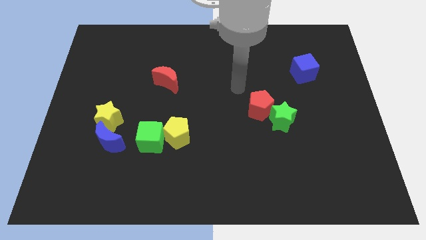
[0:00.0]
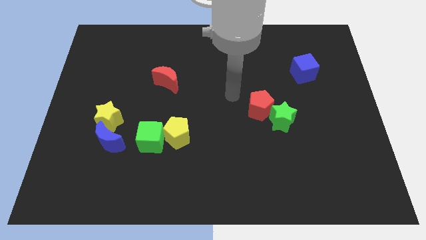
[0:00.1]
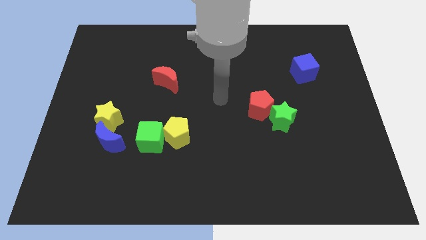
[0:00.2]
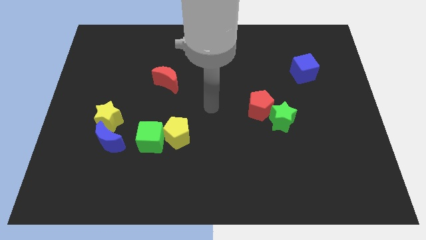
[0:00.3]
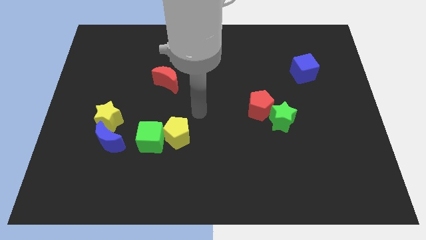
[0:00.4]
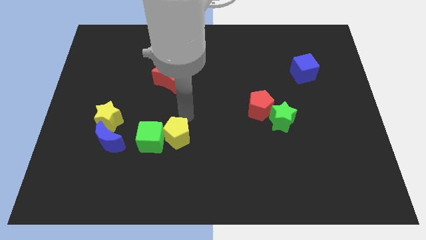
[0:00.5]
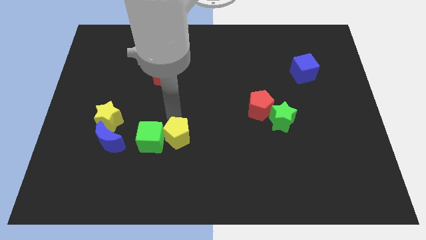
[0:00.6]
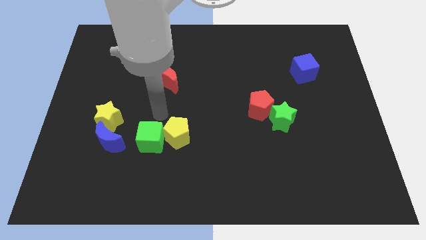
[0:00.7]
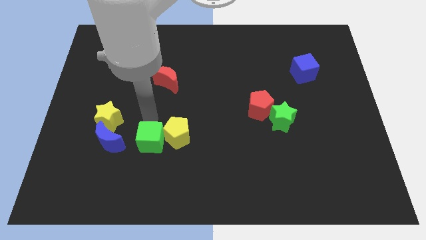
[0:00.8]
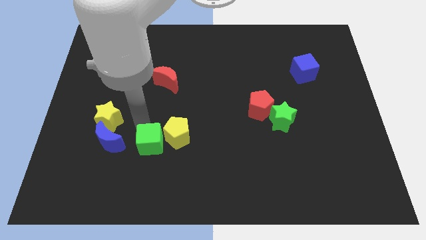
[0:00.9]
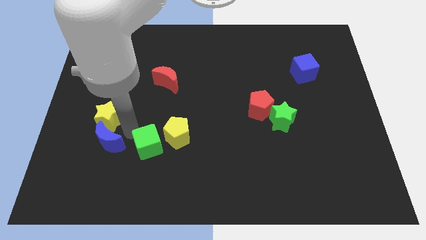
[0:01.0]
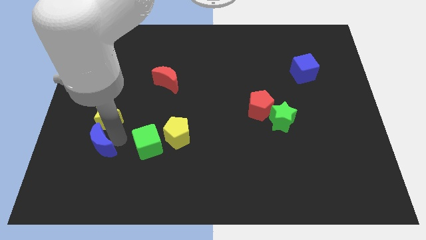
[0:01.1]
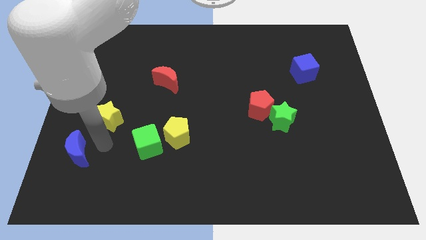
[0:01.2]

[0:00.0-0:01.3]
pull the yellow star apart from the blue moon

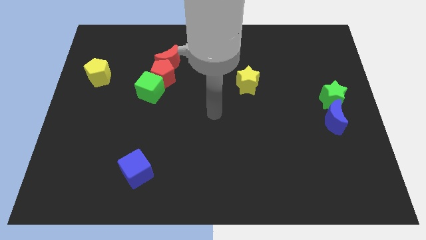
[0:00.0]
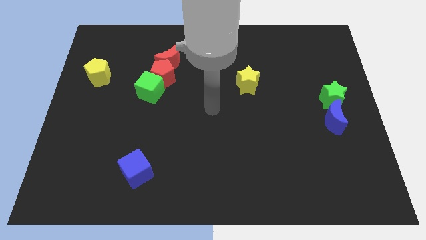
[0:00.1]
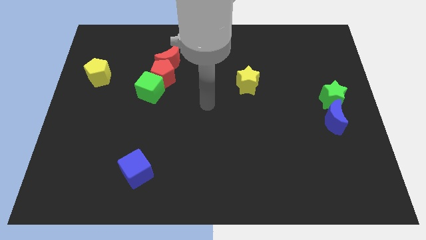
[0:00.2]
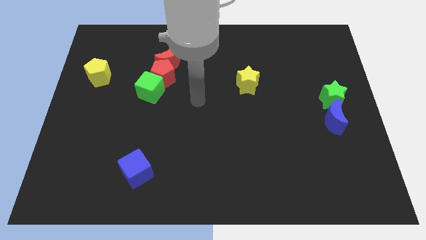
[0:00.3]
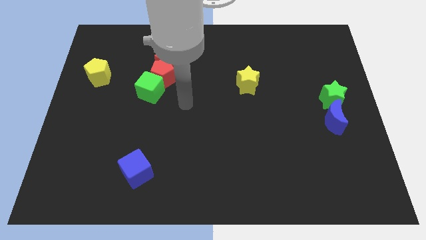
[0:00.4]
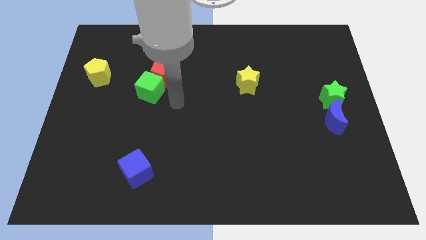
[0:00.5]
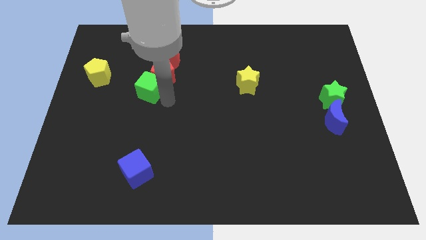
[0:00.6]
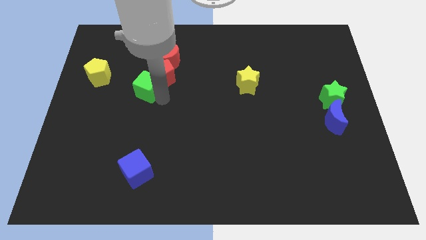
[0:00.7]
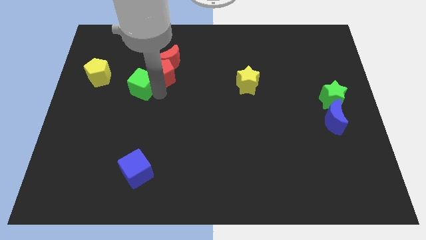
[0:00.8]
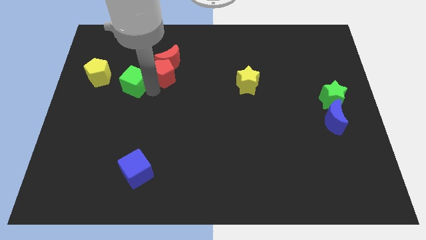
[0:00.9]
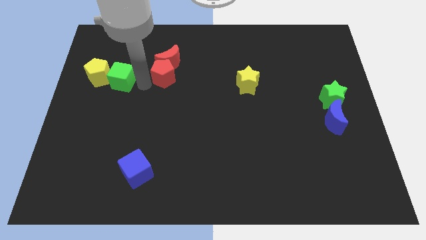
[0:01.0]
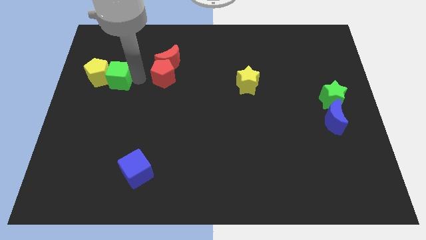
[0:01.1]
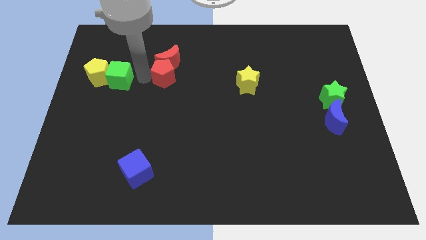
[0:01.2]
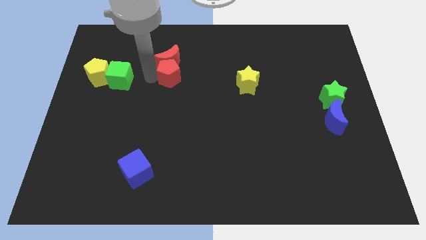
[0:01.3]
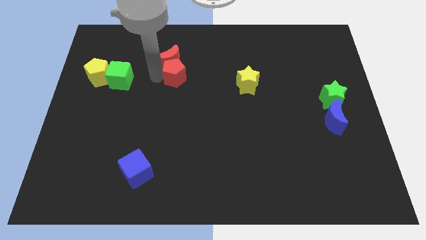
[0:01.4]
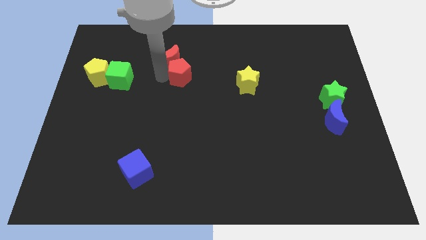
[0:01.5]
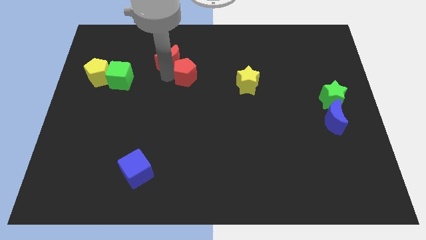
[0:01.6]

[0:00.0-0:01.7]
separate the red pentagon from the red moon and green cube

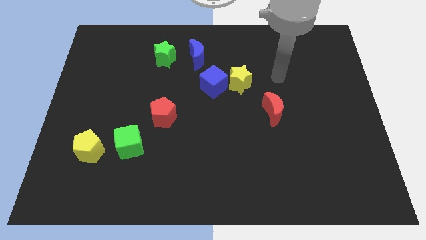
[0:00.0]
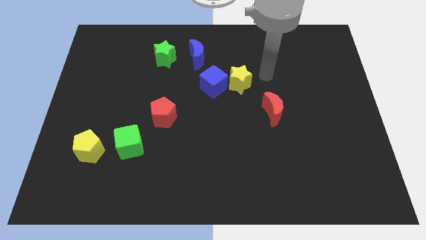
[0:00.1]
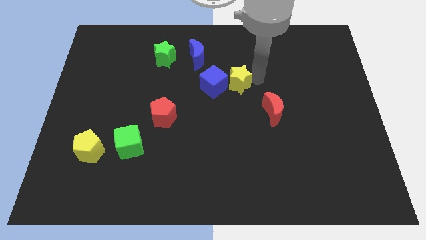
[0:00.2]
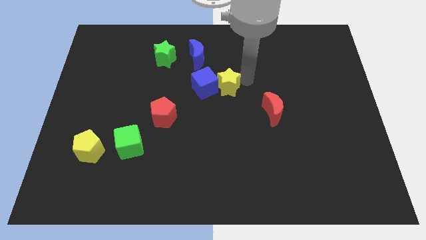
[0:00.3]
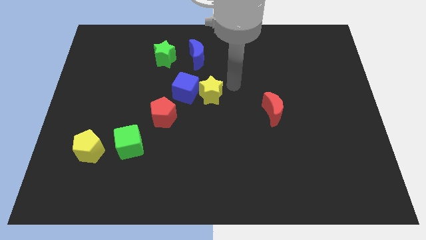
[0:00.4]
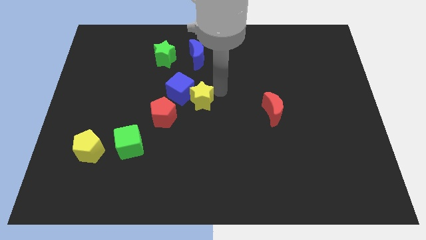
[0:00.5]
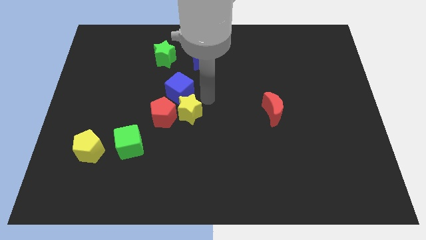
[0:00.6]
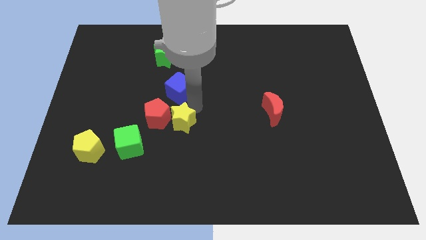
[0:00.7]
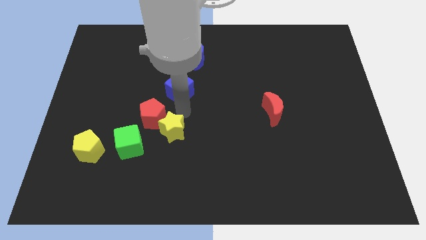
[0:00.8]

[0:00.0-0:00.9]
pull the blue cube apart from the yellow star

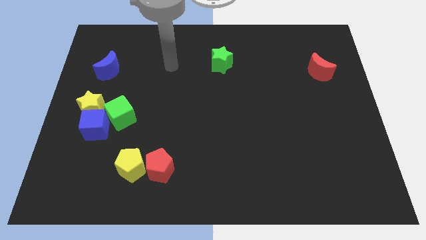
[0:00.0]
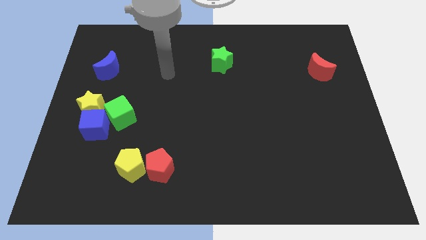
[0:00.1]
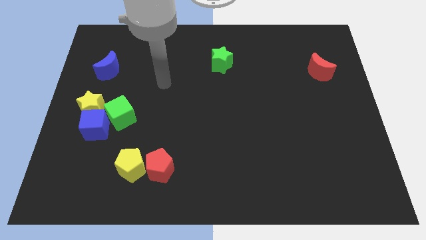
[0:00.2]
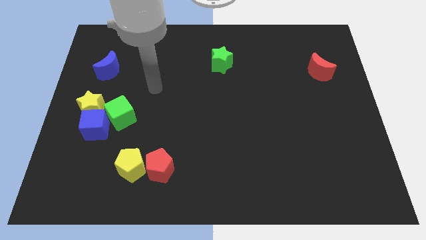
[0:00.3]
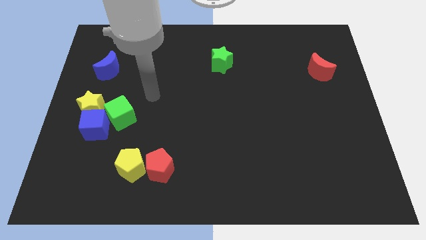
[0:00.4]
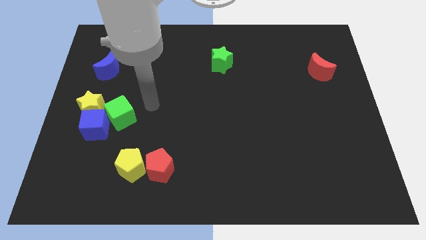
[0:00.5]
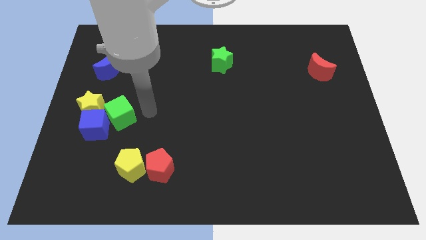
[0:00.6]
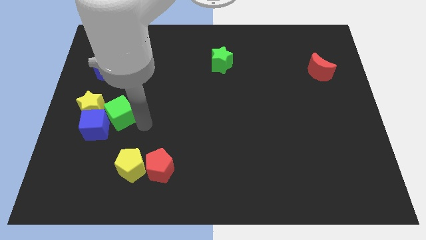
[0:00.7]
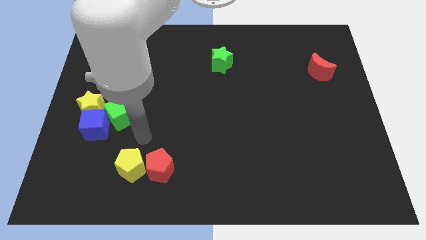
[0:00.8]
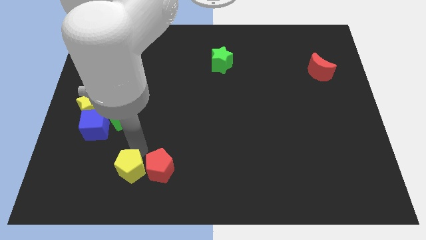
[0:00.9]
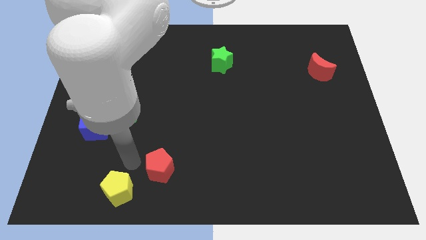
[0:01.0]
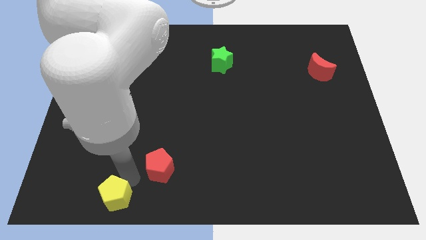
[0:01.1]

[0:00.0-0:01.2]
pull the red pentagon apart from the yellow pentagon

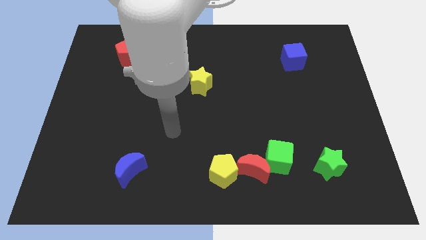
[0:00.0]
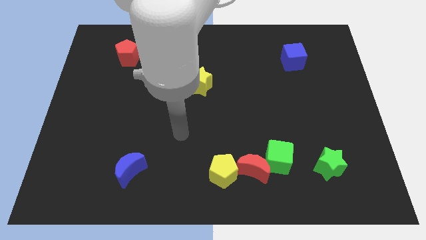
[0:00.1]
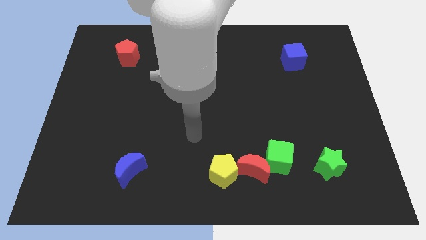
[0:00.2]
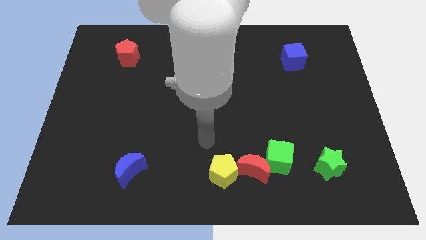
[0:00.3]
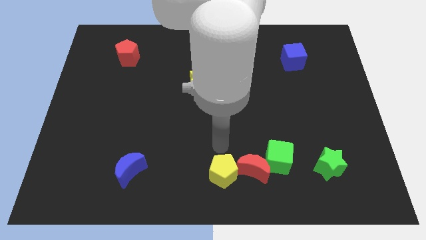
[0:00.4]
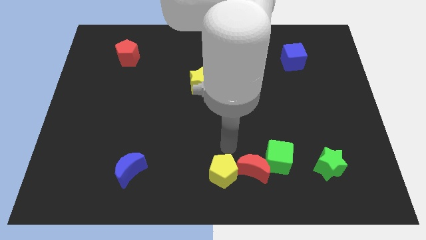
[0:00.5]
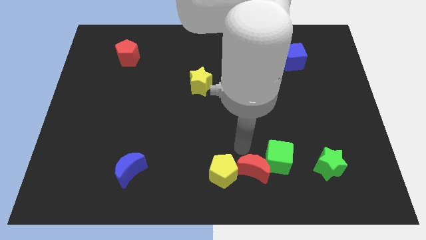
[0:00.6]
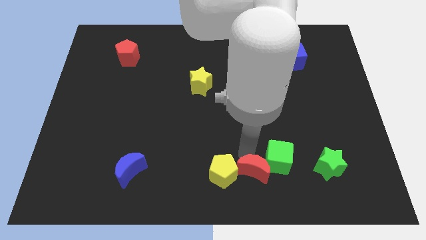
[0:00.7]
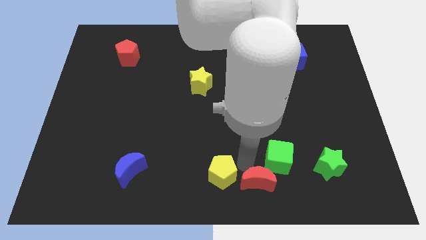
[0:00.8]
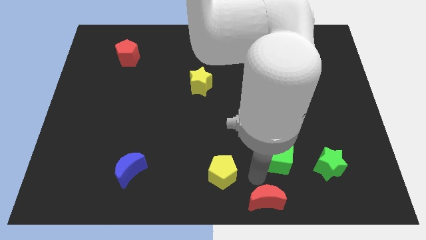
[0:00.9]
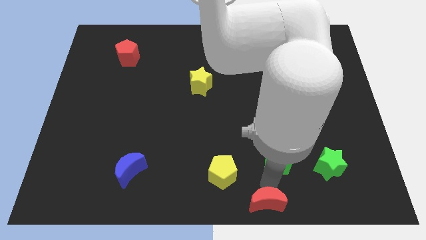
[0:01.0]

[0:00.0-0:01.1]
pull the green cube apart from the red moon

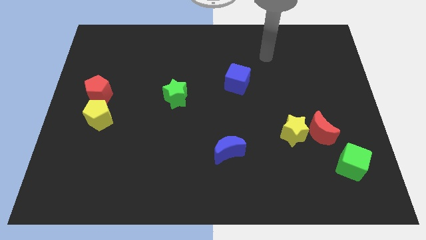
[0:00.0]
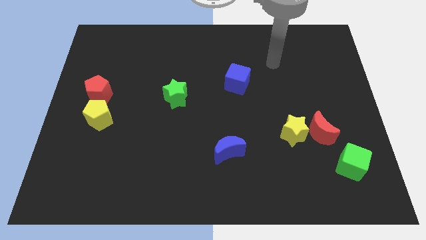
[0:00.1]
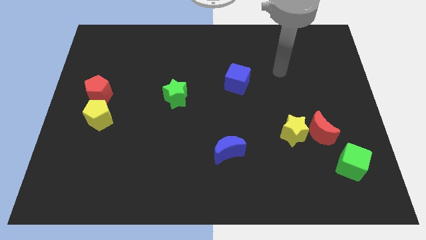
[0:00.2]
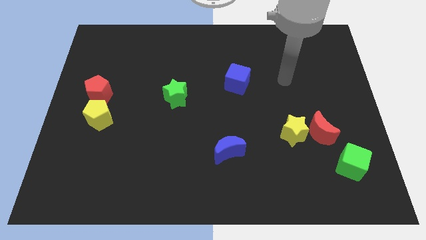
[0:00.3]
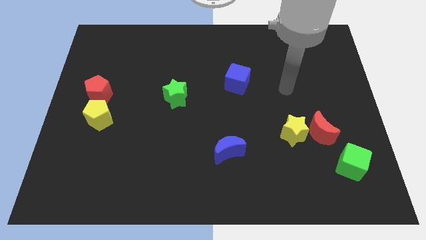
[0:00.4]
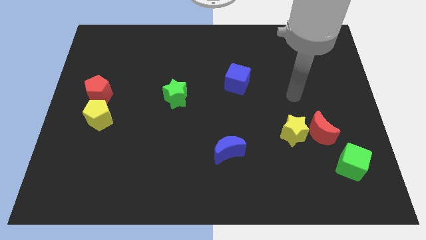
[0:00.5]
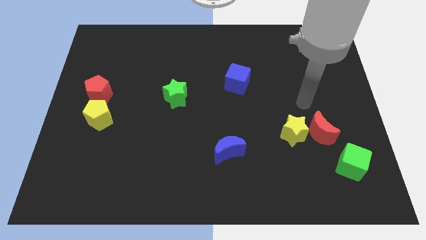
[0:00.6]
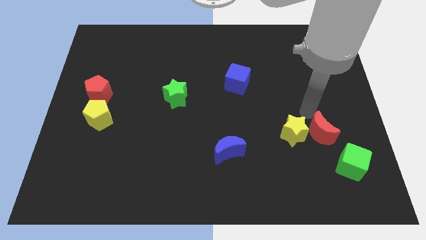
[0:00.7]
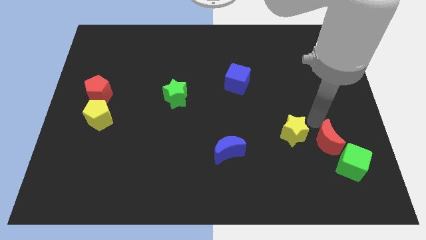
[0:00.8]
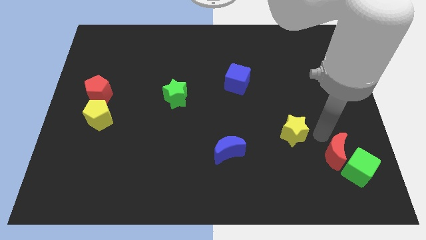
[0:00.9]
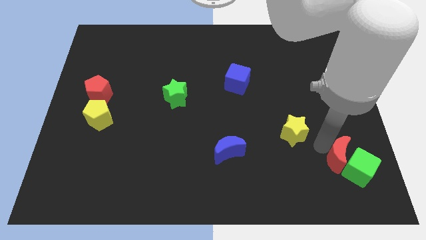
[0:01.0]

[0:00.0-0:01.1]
pull the yellow star apart from the red moon

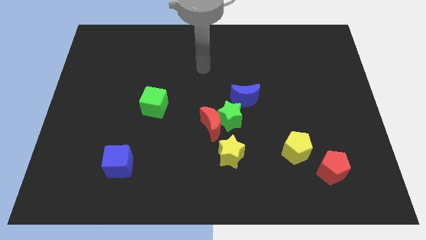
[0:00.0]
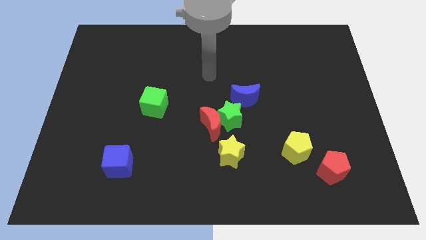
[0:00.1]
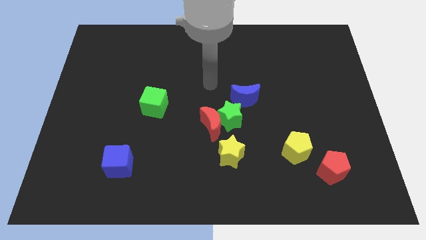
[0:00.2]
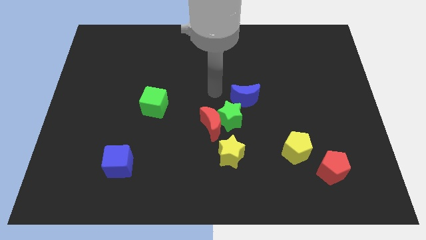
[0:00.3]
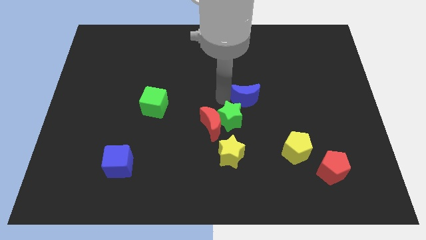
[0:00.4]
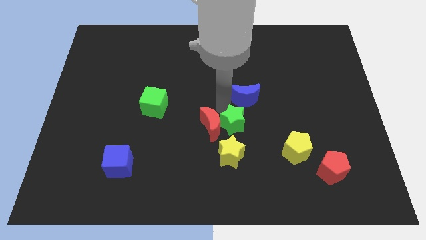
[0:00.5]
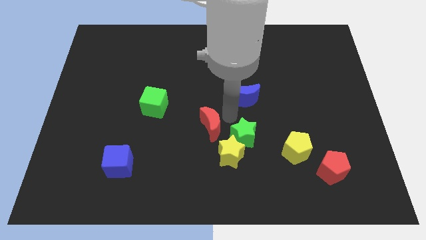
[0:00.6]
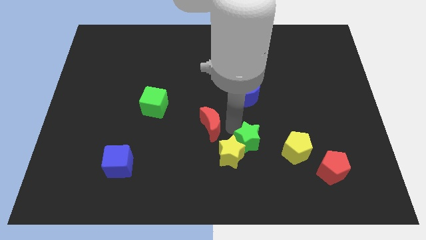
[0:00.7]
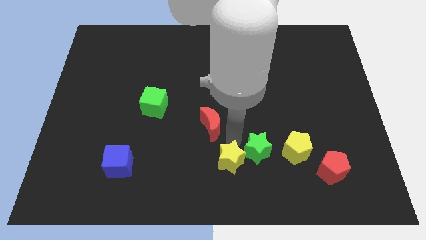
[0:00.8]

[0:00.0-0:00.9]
pull the red moon apart from the green star and yellow star

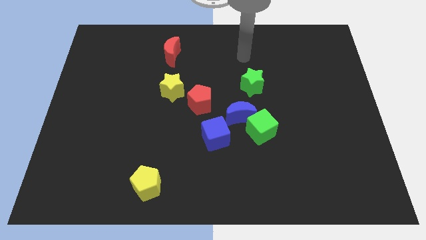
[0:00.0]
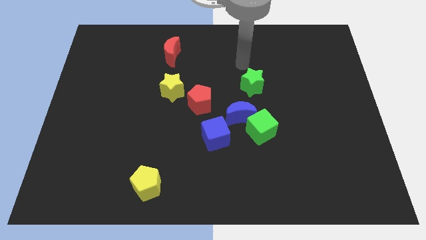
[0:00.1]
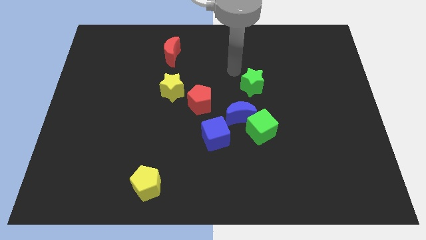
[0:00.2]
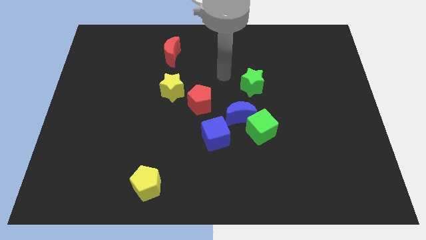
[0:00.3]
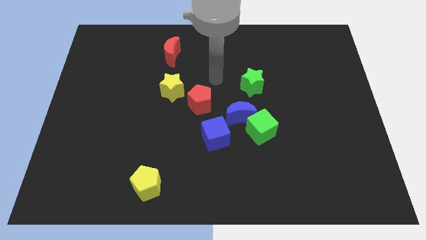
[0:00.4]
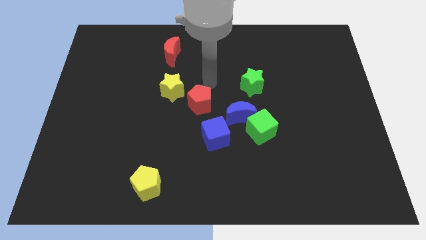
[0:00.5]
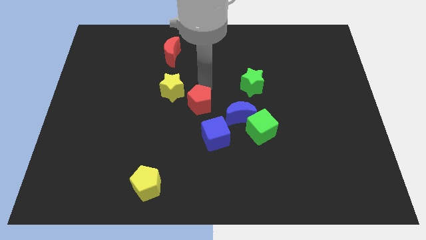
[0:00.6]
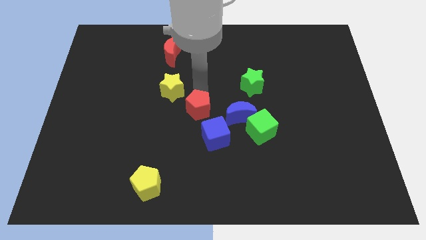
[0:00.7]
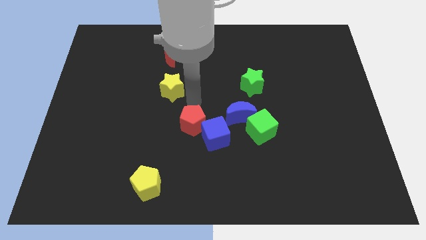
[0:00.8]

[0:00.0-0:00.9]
move the yellow star away from the red pentagon

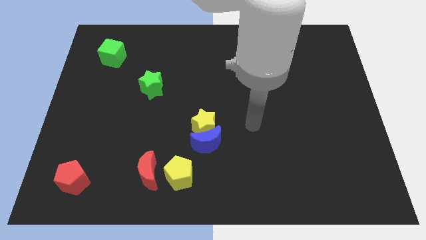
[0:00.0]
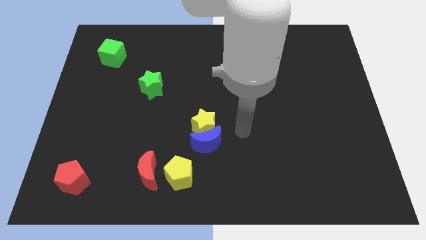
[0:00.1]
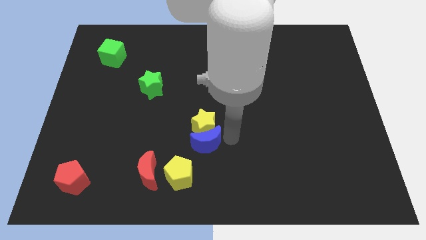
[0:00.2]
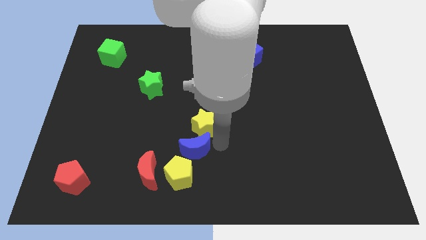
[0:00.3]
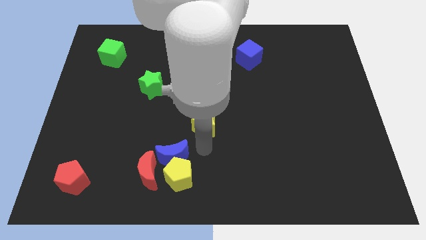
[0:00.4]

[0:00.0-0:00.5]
separate the yellow star from the blue moon
